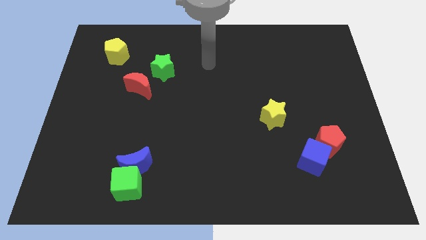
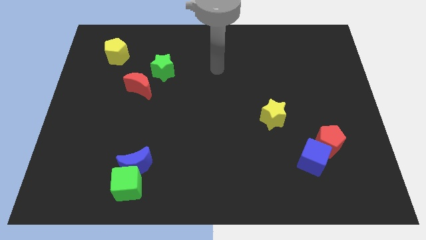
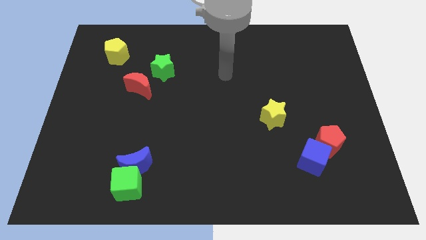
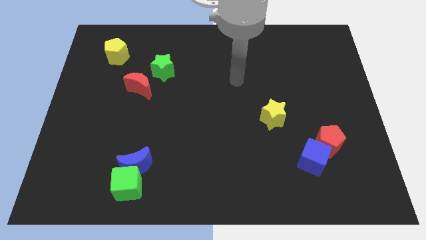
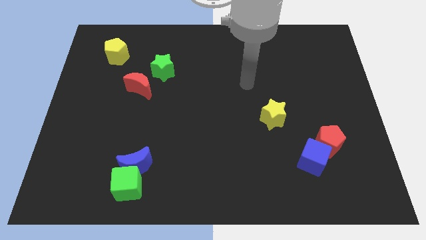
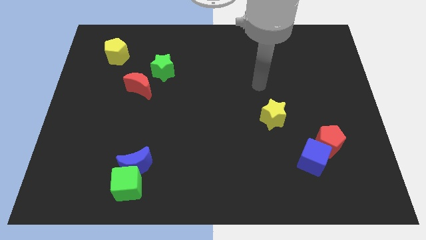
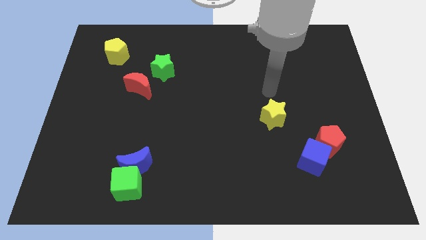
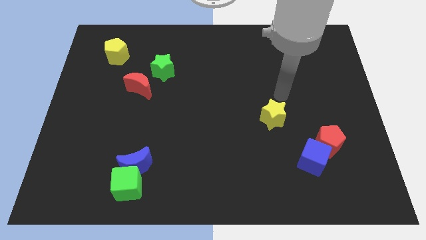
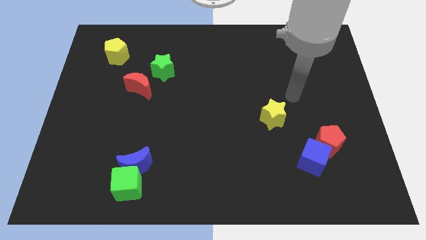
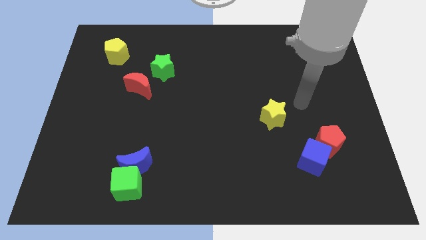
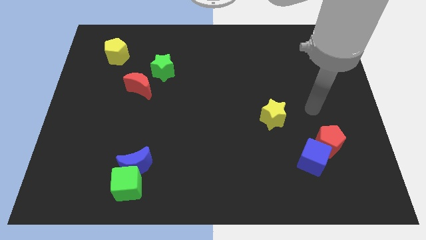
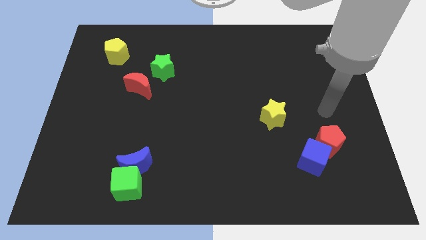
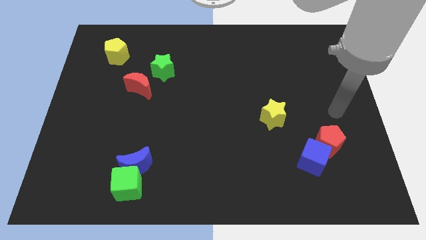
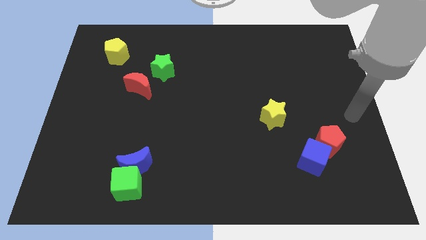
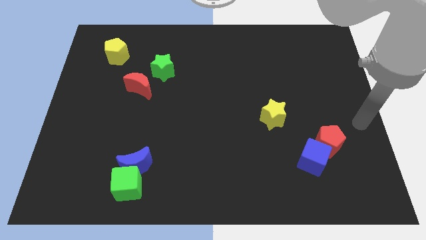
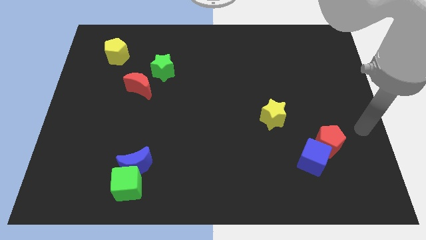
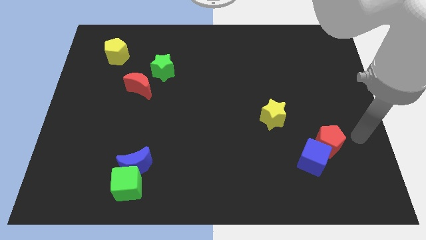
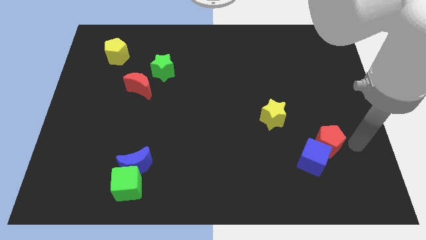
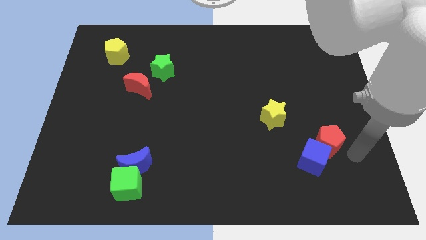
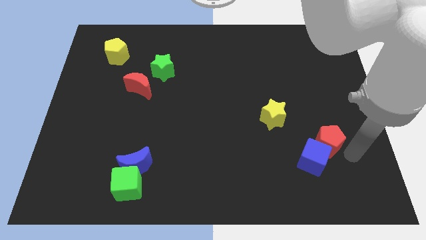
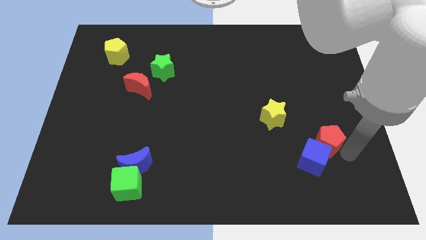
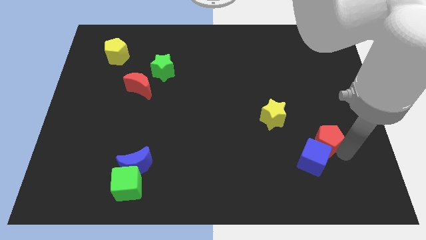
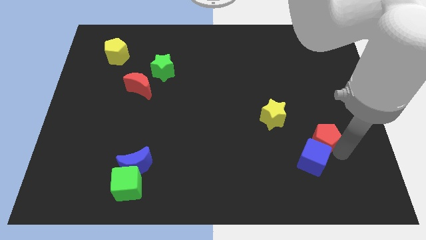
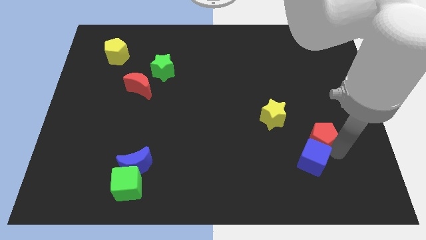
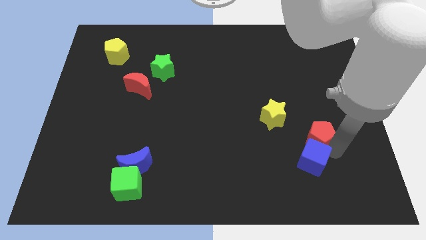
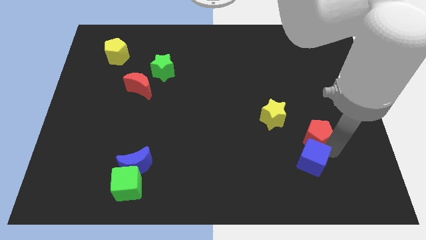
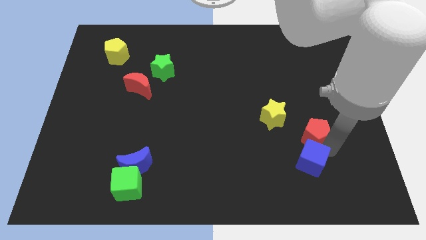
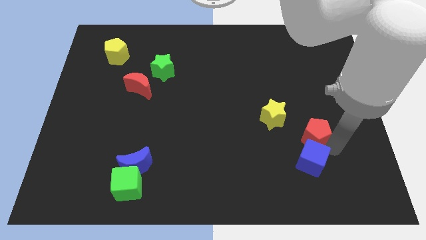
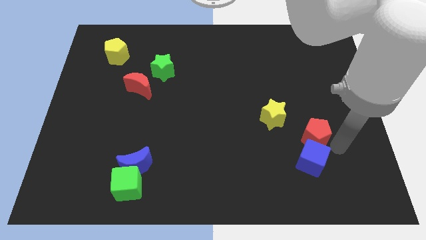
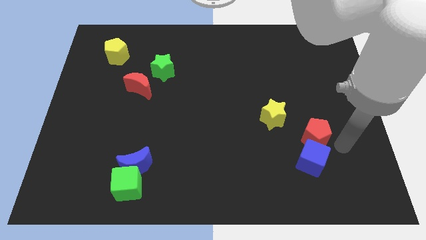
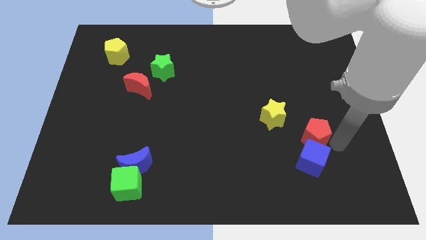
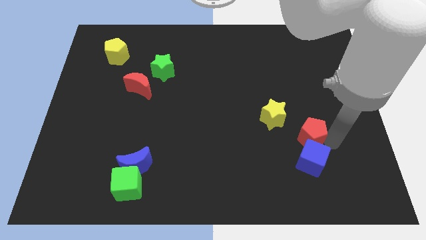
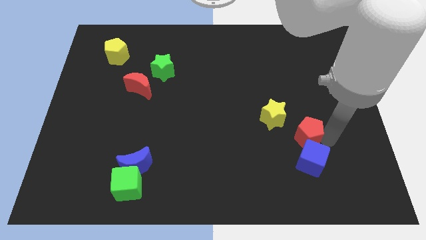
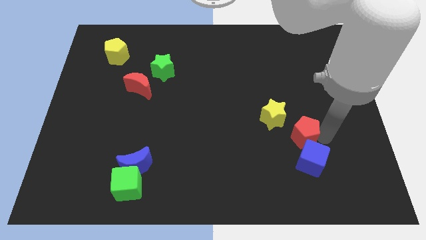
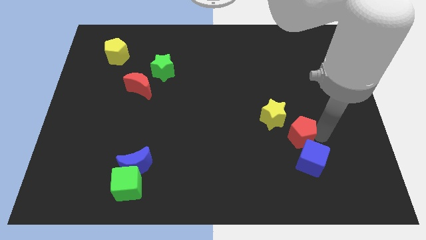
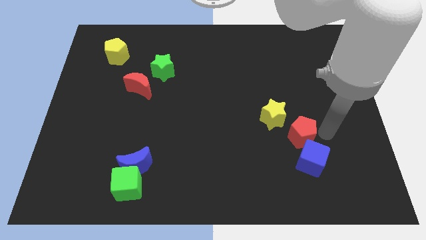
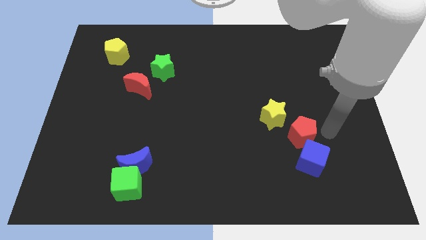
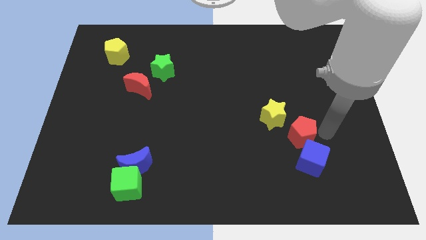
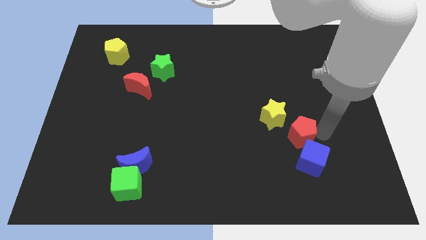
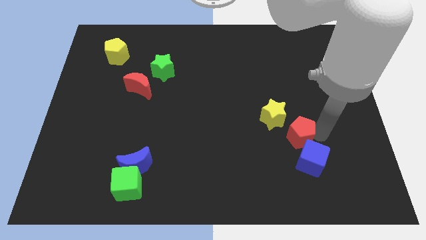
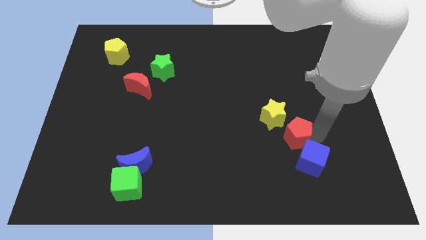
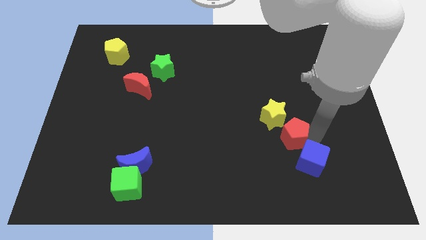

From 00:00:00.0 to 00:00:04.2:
slide the red pentagon slightly left

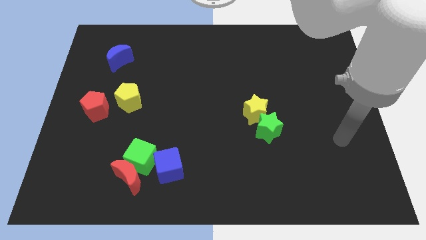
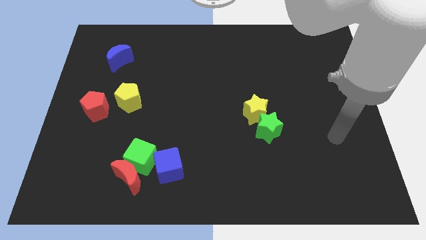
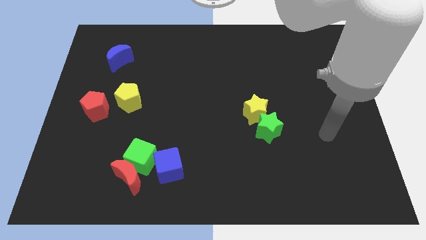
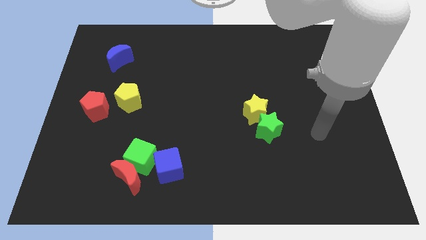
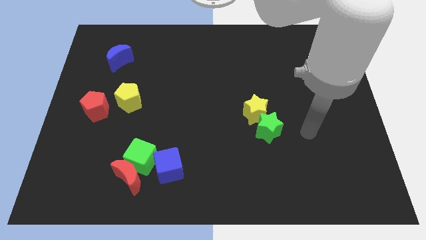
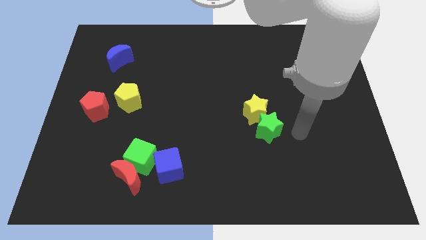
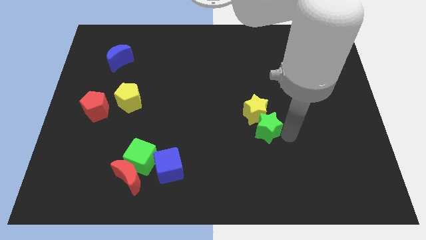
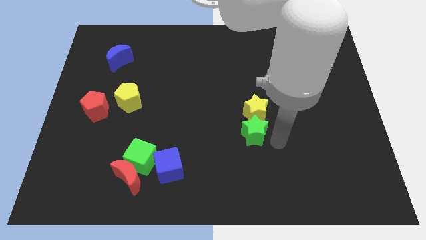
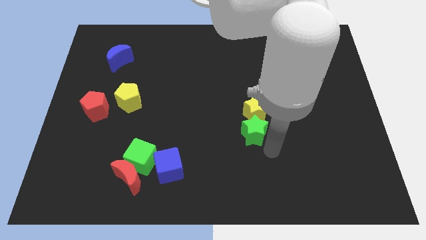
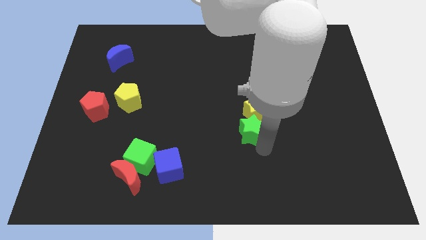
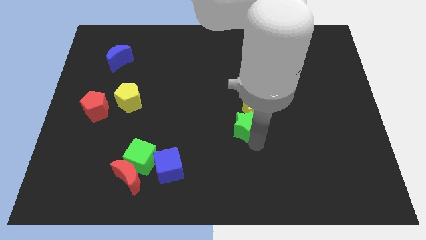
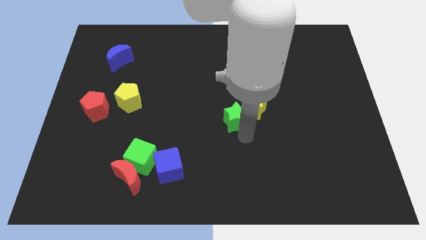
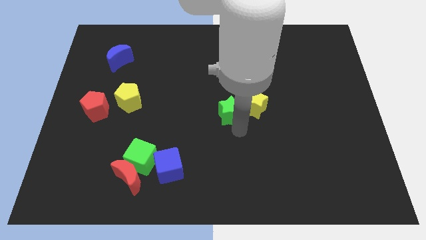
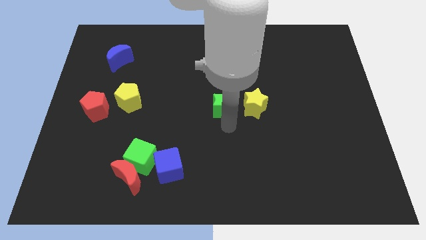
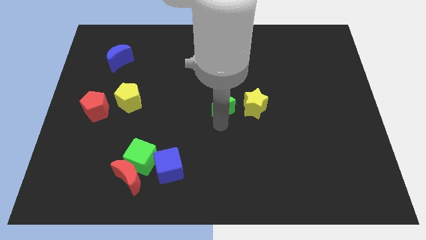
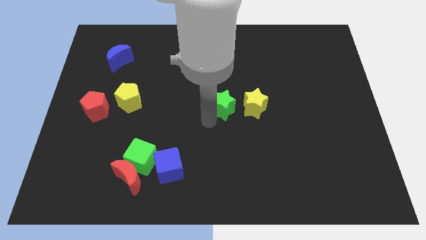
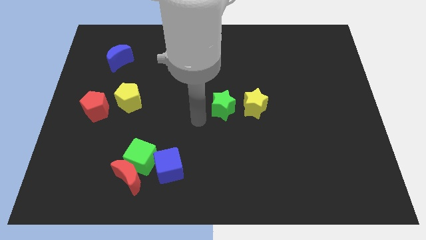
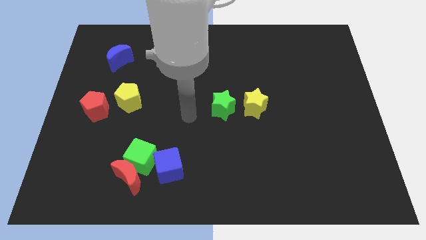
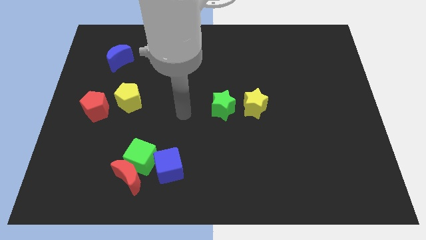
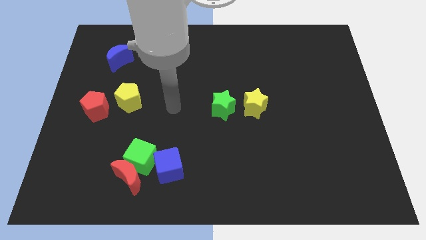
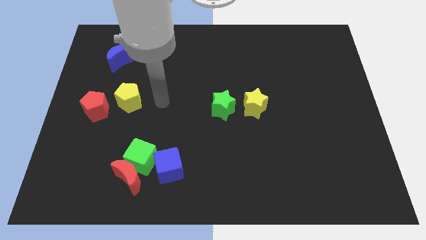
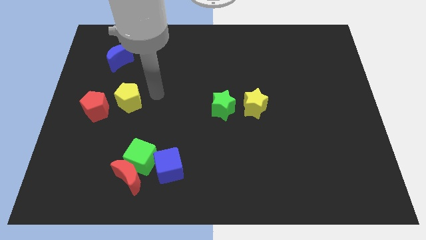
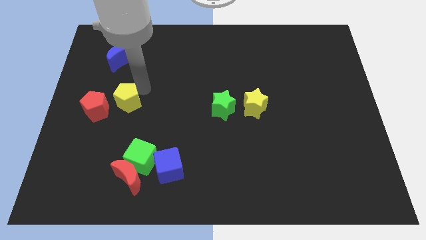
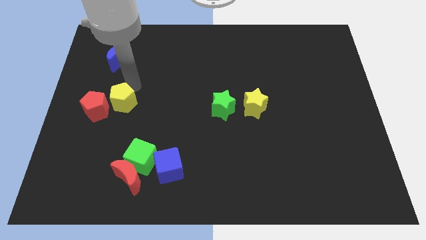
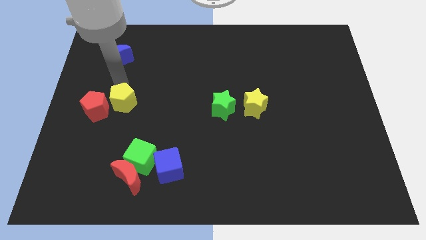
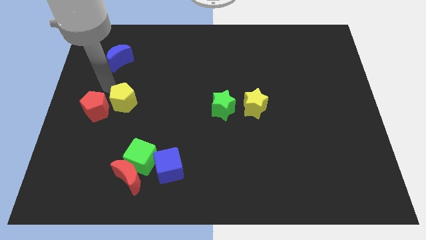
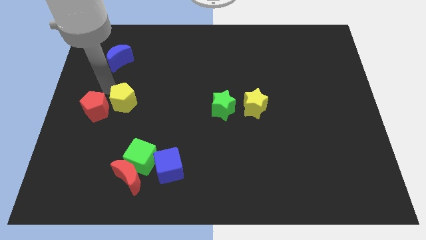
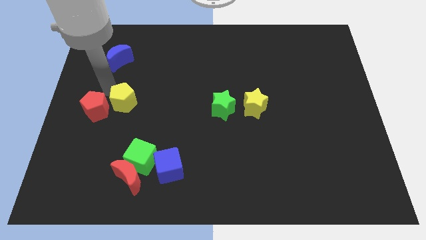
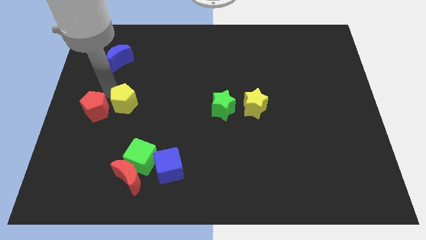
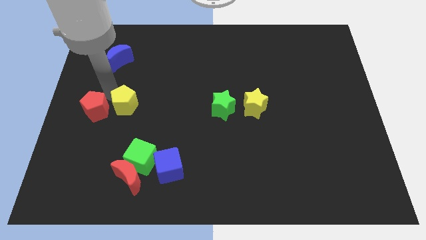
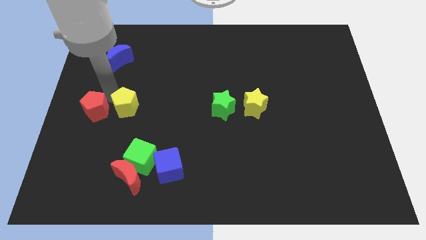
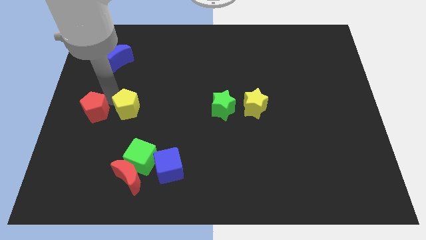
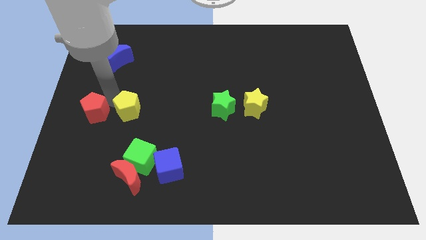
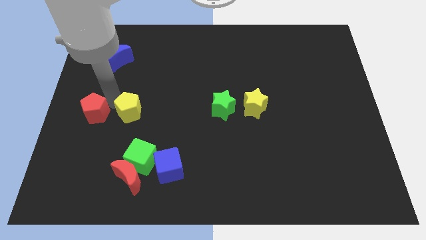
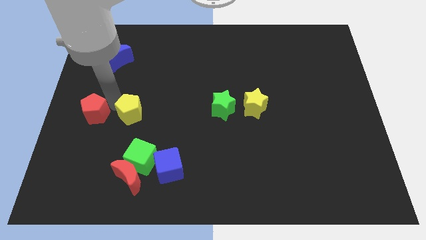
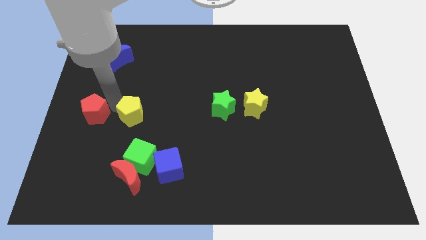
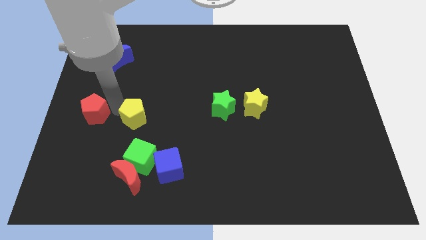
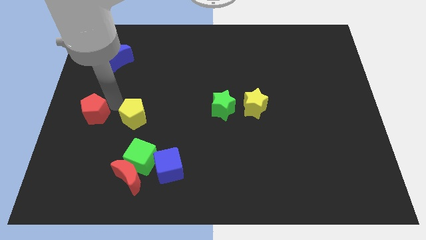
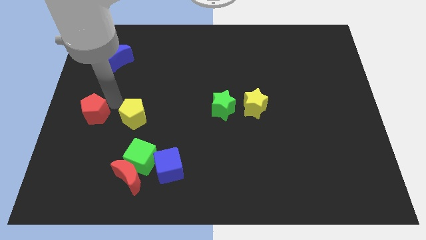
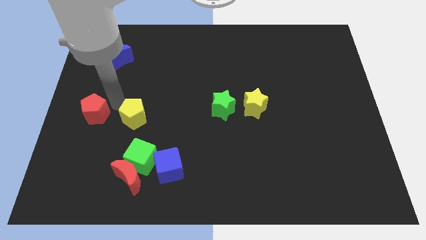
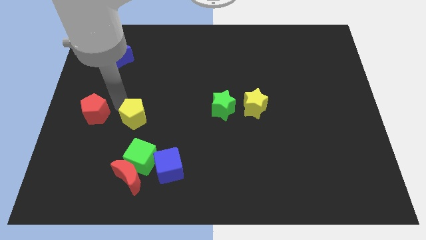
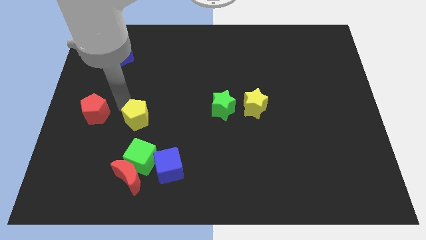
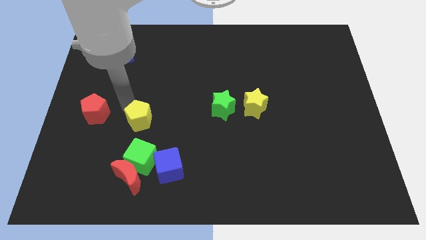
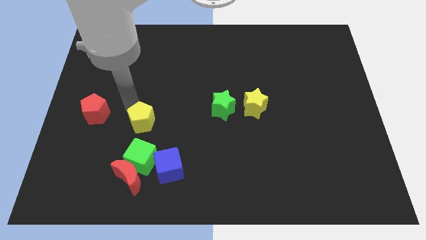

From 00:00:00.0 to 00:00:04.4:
slightly push the yellow pentagon diagonally downwards and right
